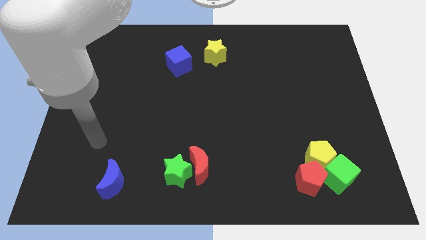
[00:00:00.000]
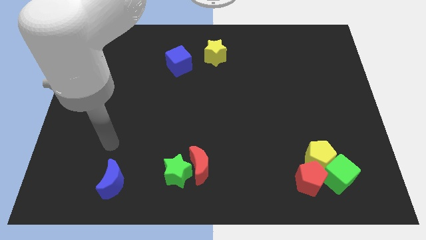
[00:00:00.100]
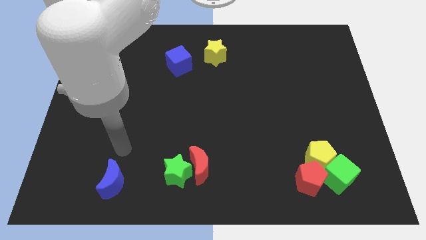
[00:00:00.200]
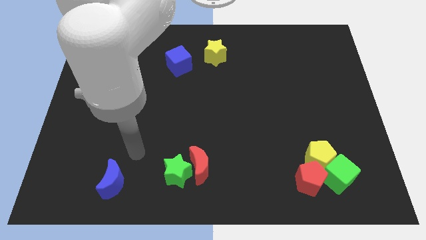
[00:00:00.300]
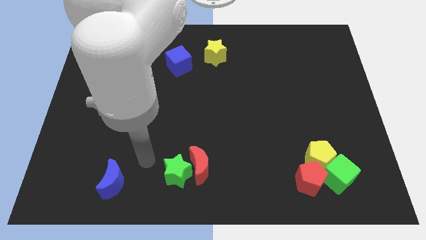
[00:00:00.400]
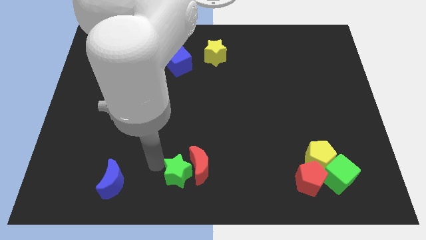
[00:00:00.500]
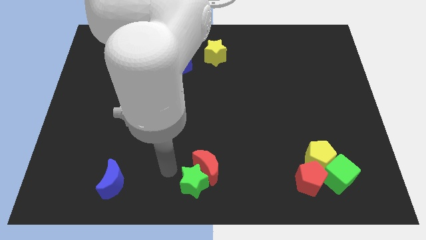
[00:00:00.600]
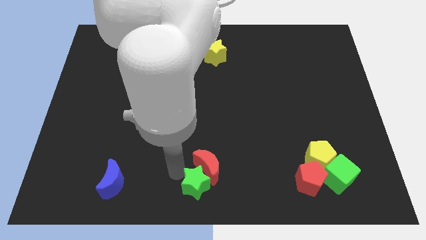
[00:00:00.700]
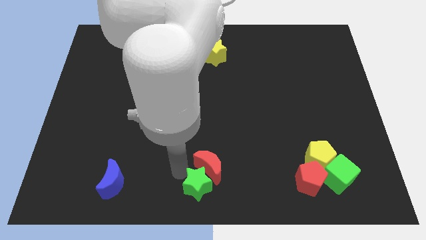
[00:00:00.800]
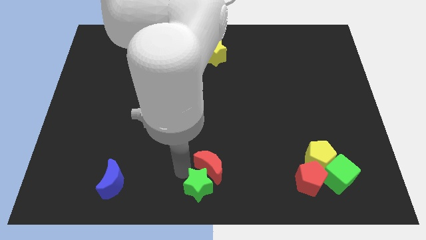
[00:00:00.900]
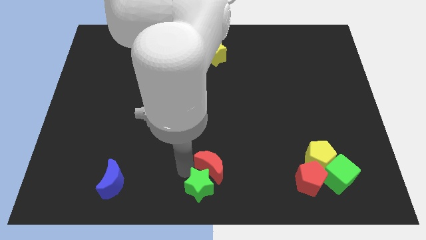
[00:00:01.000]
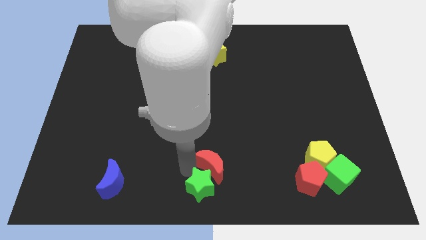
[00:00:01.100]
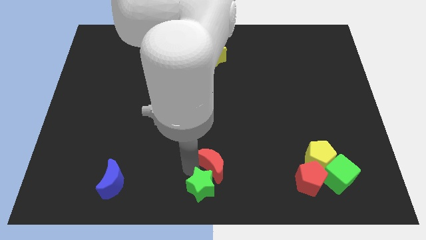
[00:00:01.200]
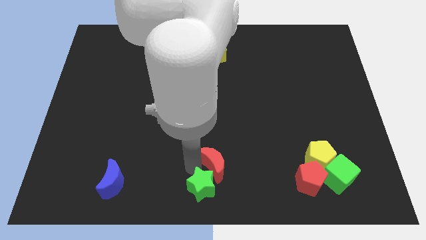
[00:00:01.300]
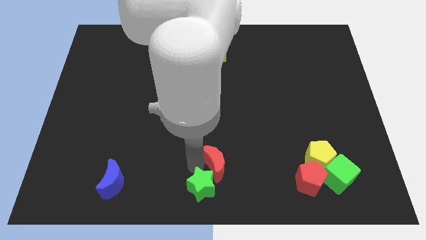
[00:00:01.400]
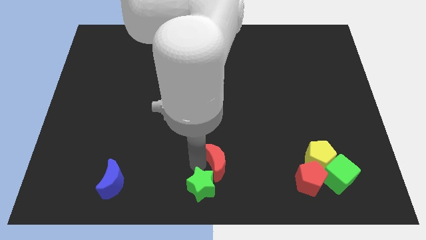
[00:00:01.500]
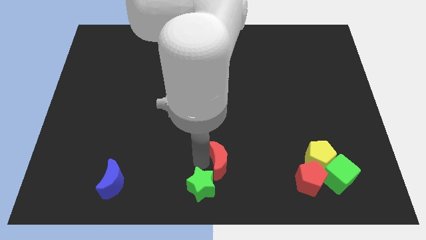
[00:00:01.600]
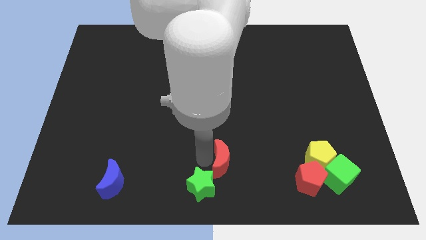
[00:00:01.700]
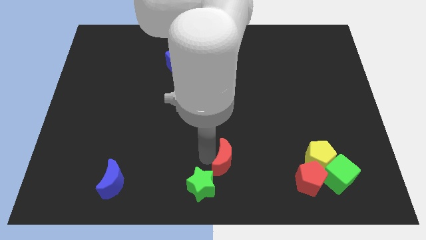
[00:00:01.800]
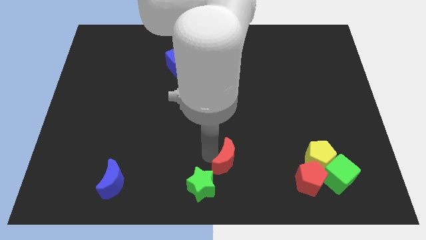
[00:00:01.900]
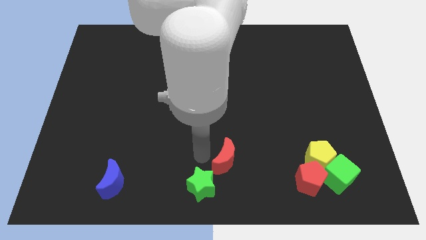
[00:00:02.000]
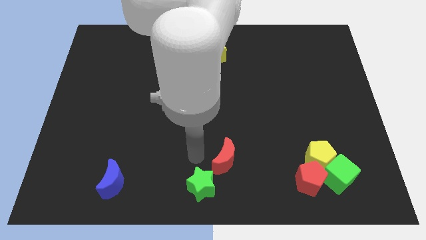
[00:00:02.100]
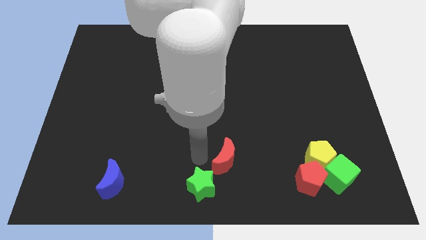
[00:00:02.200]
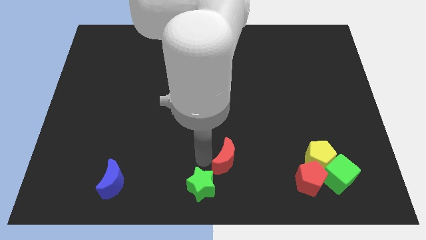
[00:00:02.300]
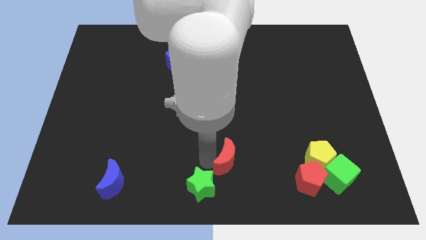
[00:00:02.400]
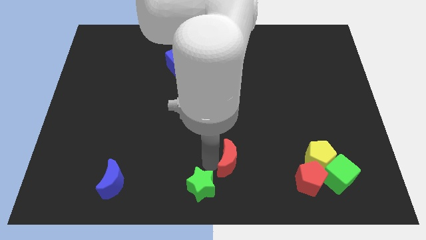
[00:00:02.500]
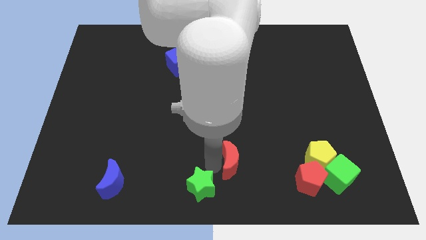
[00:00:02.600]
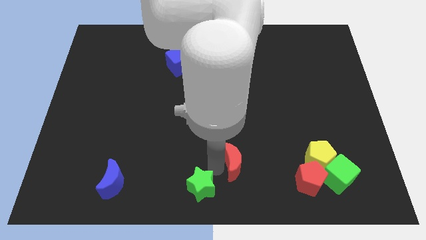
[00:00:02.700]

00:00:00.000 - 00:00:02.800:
slide the red moon slightly right

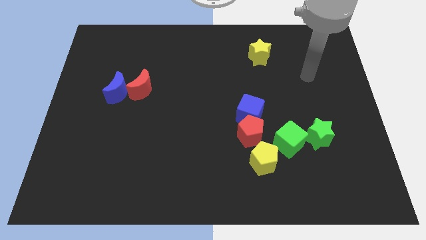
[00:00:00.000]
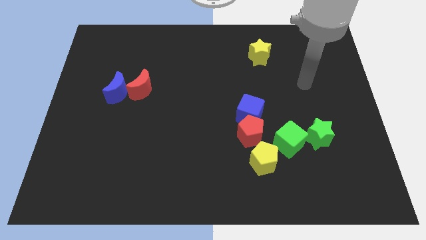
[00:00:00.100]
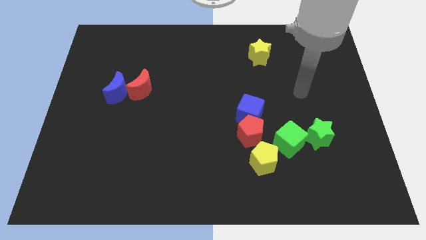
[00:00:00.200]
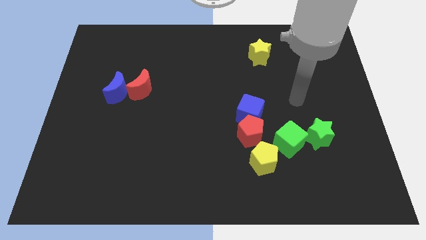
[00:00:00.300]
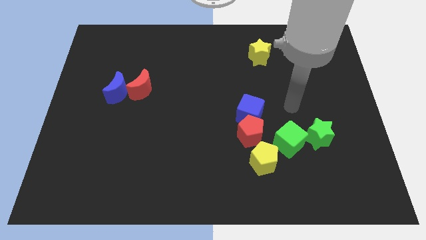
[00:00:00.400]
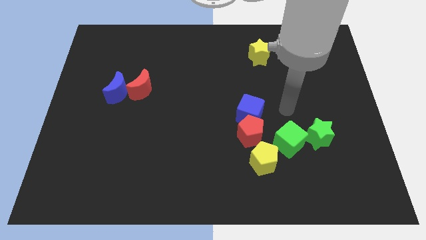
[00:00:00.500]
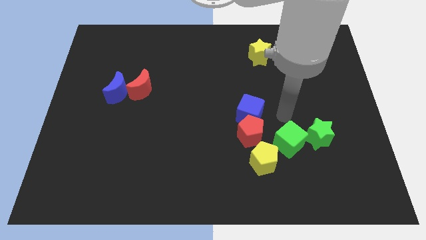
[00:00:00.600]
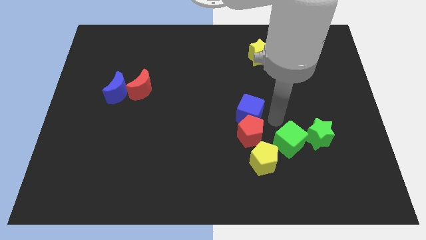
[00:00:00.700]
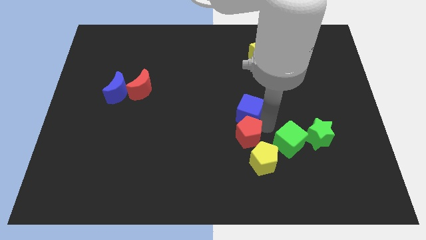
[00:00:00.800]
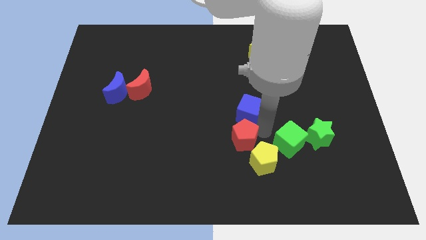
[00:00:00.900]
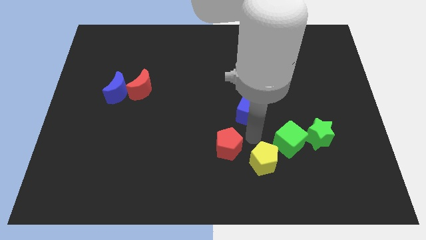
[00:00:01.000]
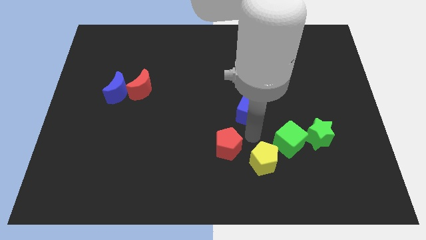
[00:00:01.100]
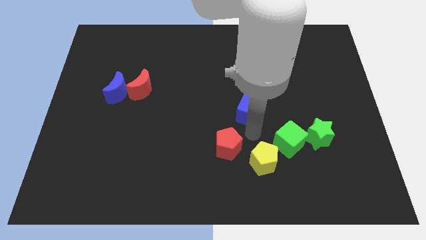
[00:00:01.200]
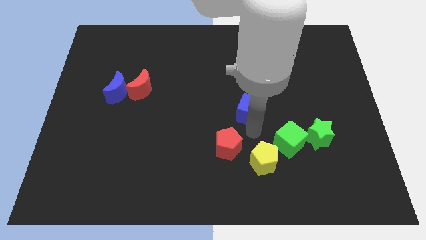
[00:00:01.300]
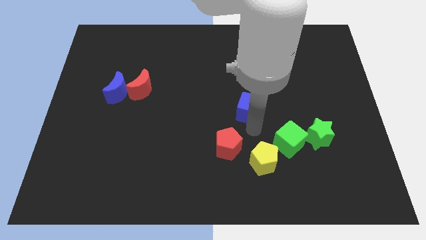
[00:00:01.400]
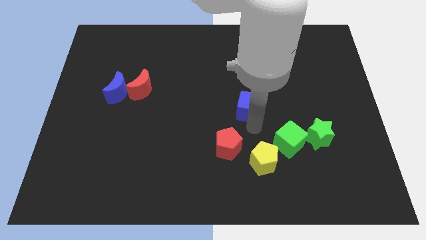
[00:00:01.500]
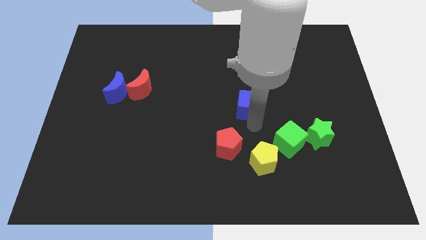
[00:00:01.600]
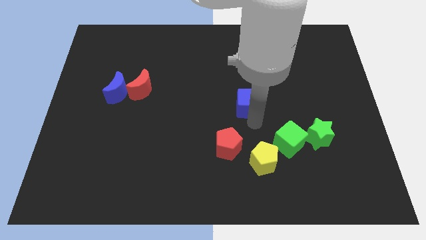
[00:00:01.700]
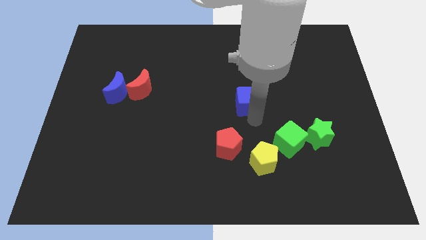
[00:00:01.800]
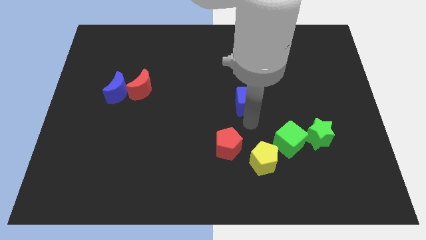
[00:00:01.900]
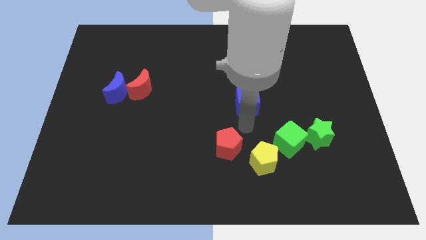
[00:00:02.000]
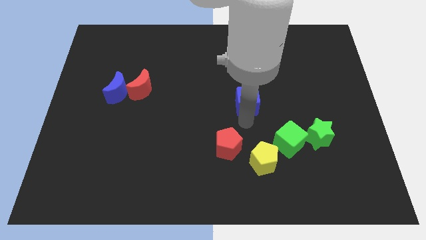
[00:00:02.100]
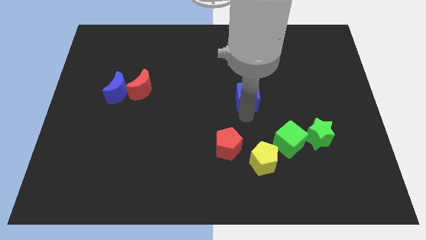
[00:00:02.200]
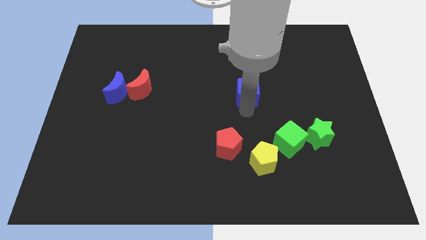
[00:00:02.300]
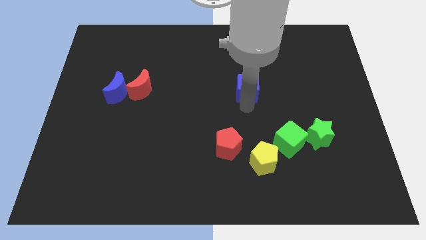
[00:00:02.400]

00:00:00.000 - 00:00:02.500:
slightly slide the blue cube up

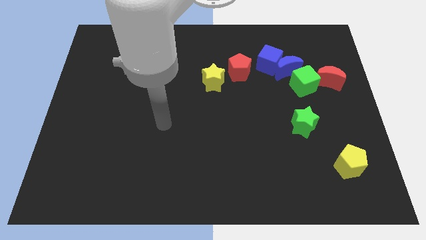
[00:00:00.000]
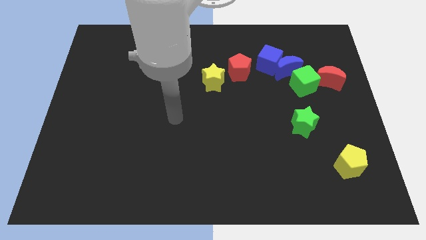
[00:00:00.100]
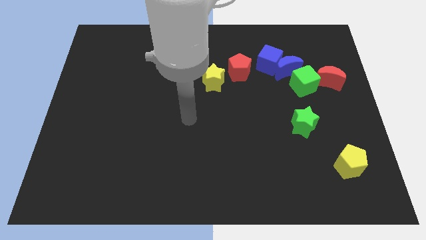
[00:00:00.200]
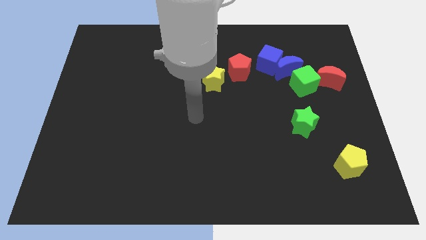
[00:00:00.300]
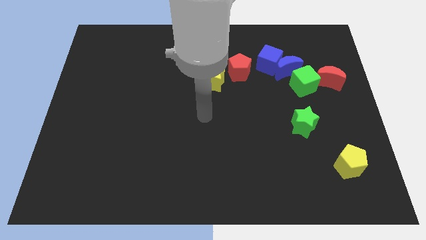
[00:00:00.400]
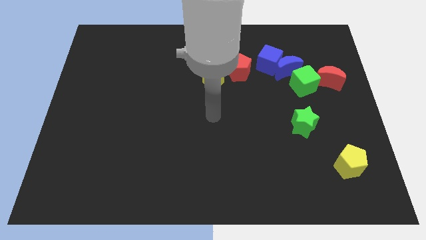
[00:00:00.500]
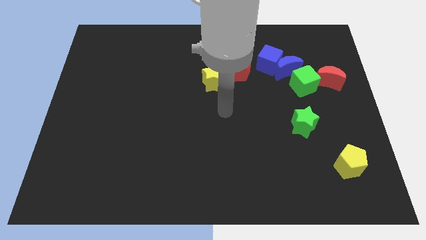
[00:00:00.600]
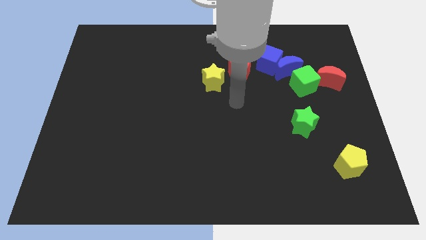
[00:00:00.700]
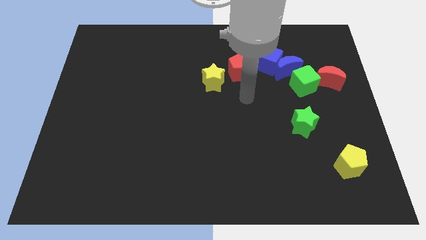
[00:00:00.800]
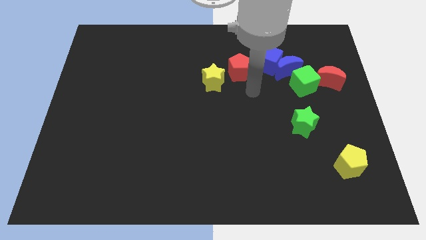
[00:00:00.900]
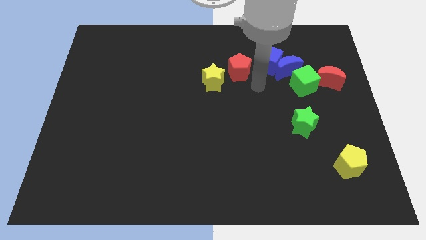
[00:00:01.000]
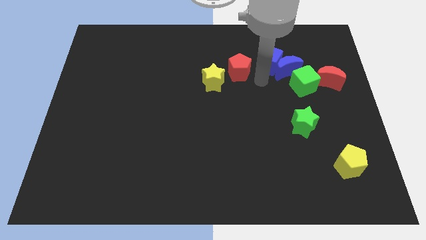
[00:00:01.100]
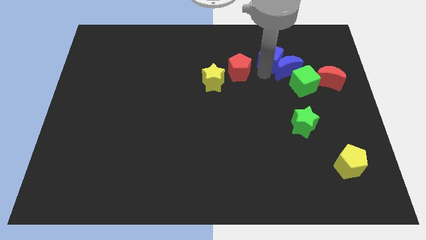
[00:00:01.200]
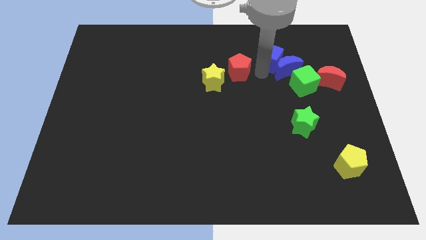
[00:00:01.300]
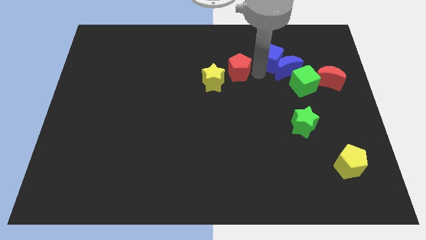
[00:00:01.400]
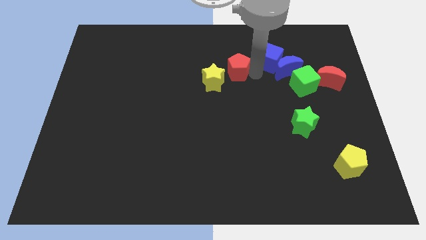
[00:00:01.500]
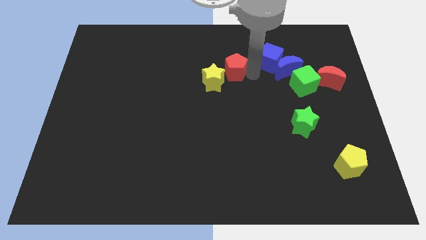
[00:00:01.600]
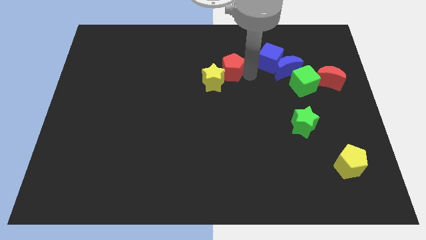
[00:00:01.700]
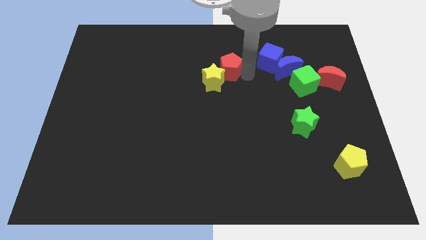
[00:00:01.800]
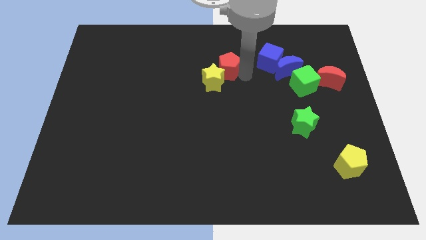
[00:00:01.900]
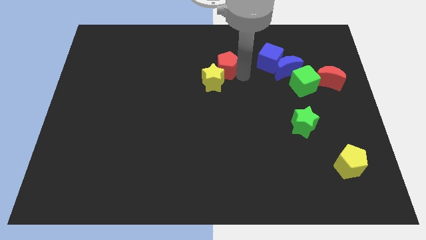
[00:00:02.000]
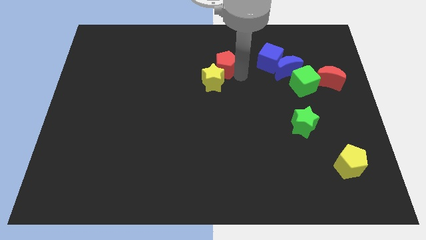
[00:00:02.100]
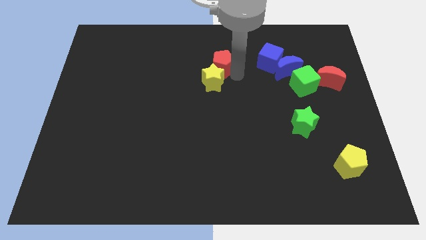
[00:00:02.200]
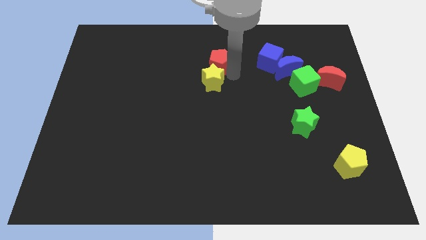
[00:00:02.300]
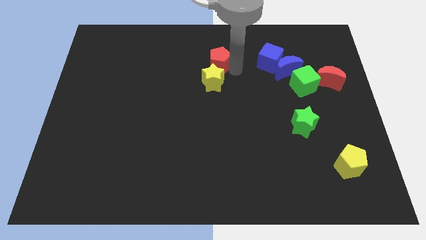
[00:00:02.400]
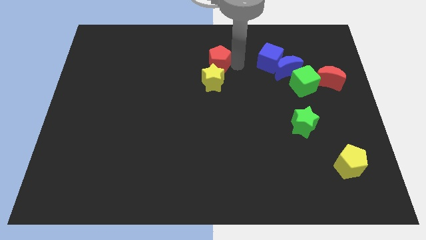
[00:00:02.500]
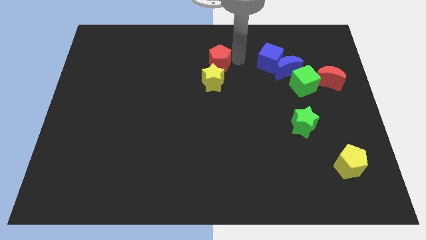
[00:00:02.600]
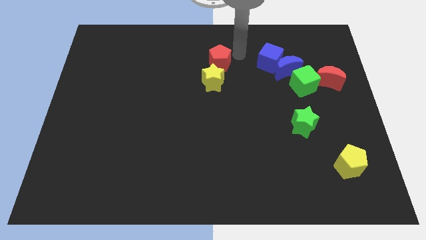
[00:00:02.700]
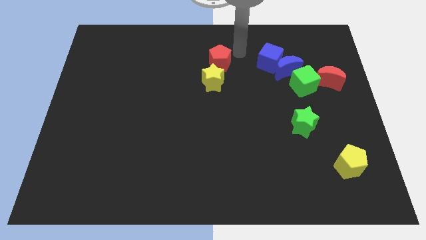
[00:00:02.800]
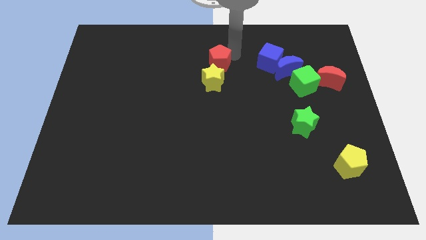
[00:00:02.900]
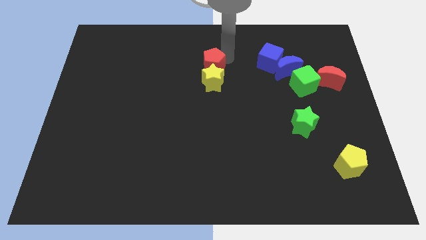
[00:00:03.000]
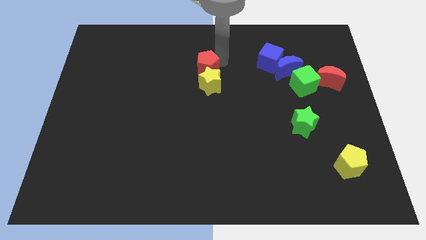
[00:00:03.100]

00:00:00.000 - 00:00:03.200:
push the red pentagon a little left
